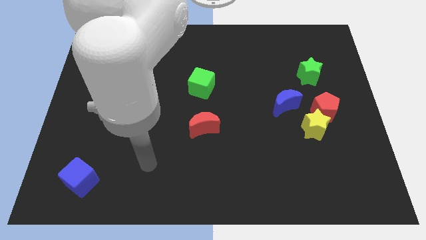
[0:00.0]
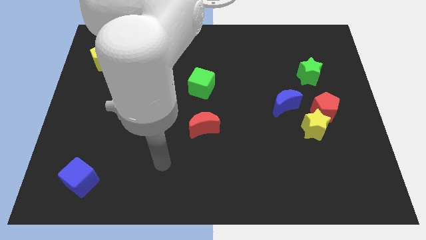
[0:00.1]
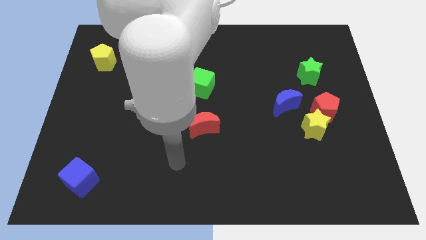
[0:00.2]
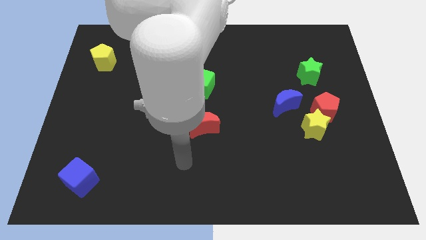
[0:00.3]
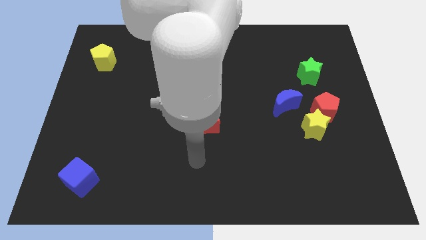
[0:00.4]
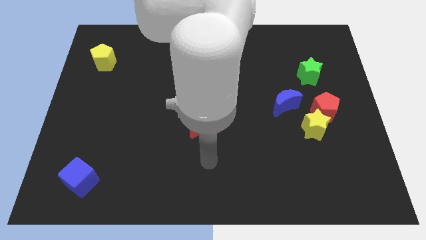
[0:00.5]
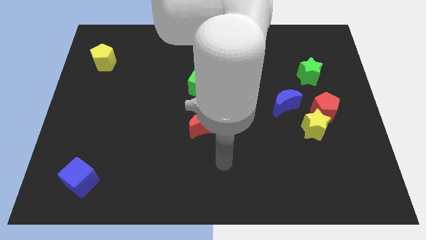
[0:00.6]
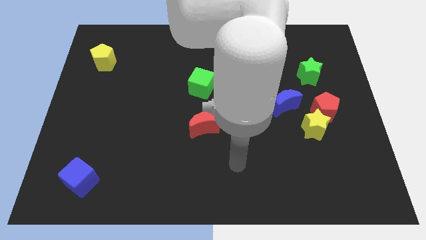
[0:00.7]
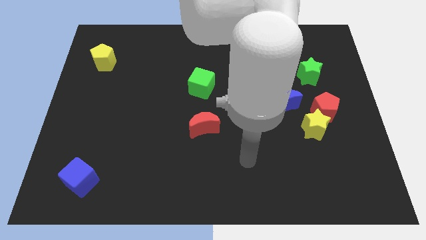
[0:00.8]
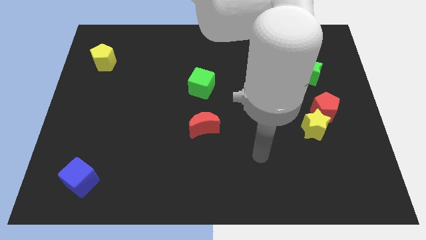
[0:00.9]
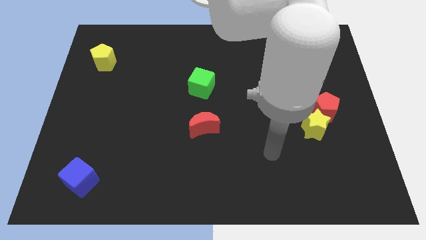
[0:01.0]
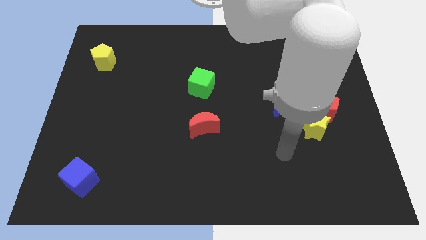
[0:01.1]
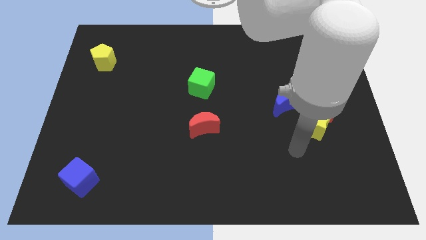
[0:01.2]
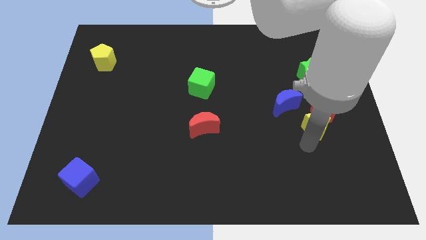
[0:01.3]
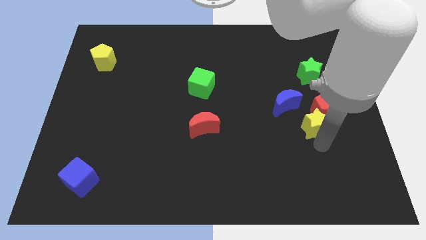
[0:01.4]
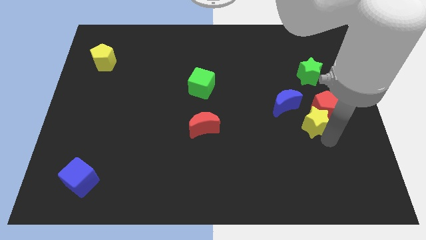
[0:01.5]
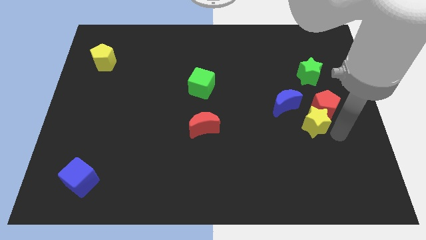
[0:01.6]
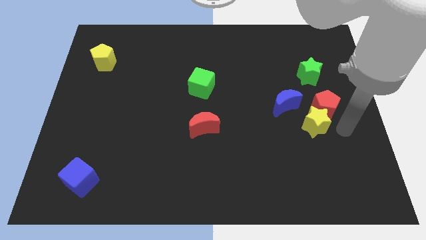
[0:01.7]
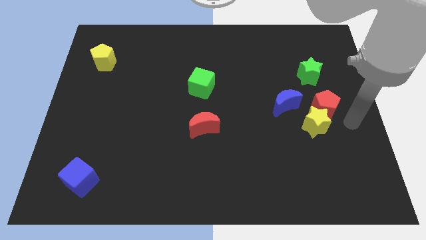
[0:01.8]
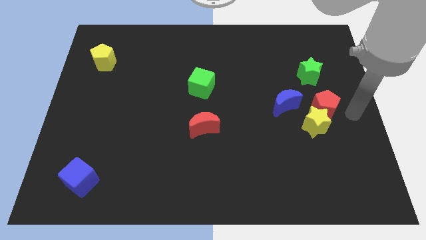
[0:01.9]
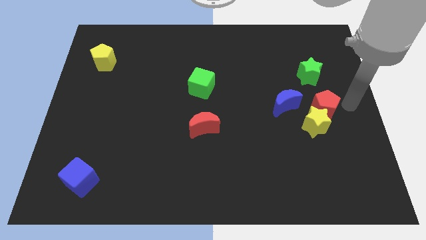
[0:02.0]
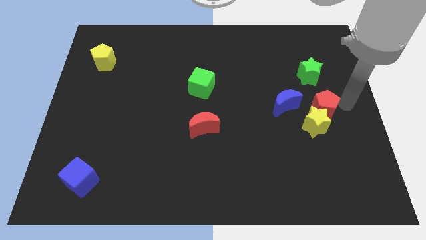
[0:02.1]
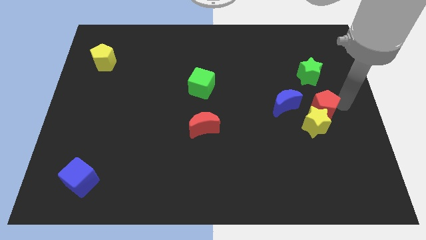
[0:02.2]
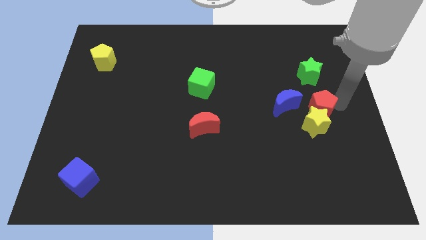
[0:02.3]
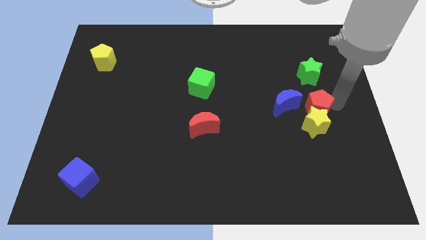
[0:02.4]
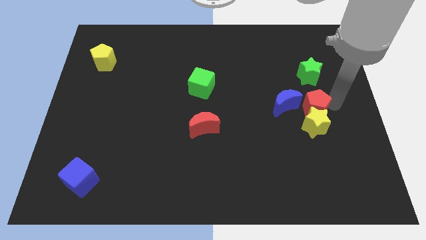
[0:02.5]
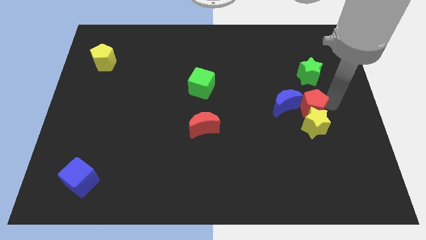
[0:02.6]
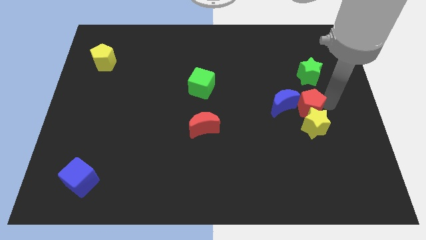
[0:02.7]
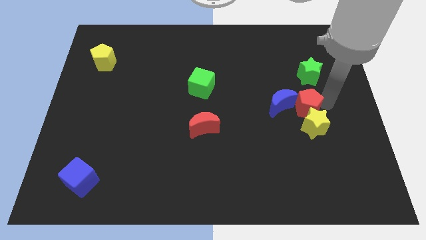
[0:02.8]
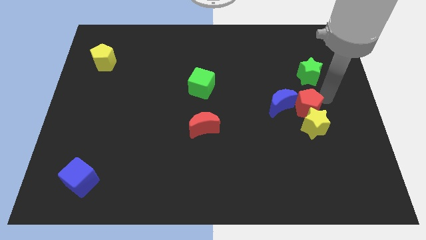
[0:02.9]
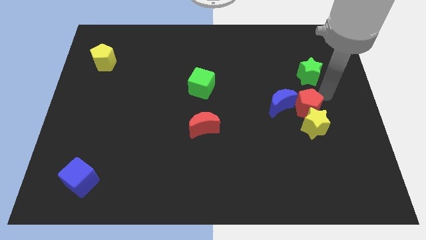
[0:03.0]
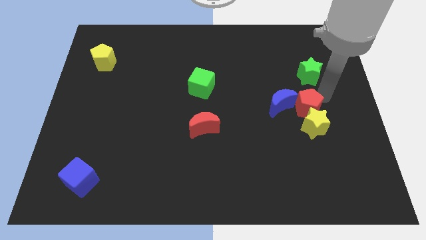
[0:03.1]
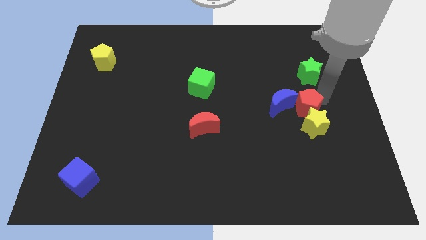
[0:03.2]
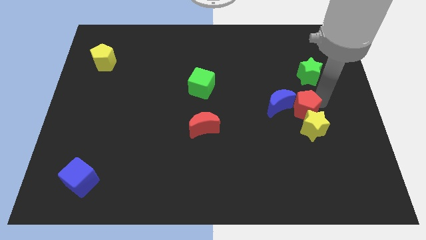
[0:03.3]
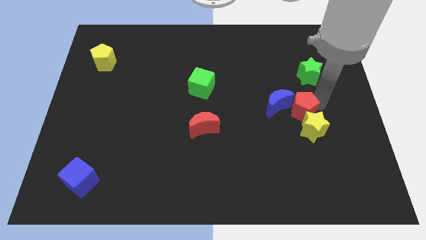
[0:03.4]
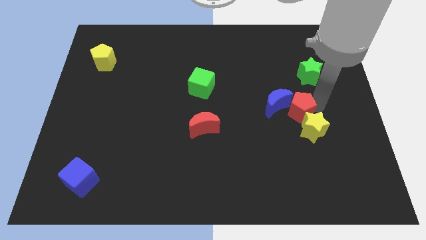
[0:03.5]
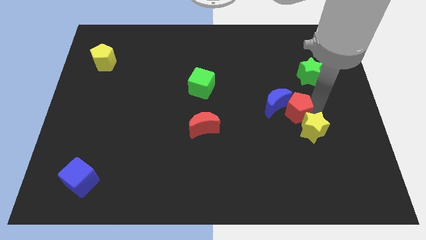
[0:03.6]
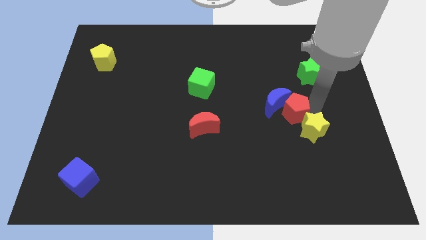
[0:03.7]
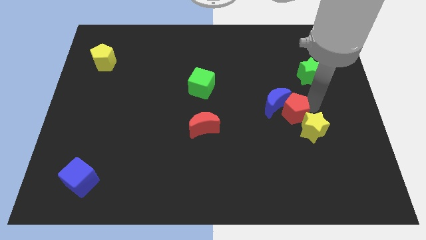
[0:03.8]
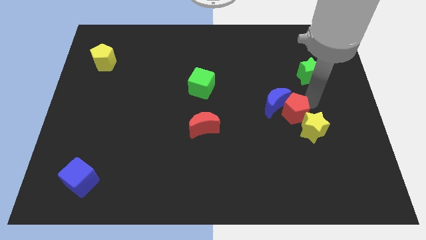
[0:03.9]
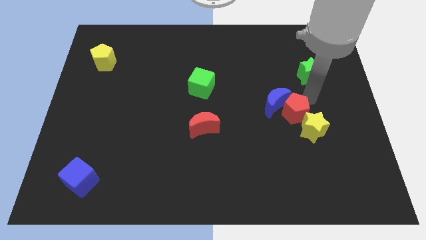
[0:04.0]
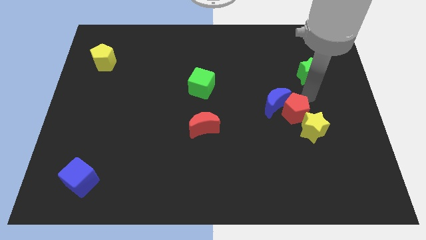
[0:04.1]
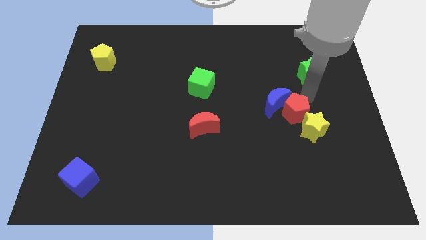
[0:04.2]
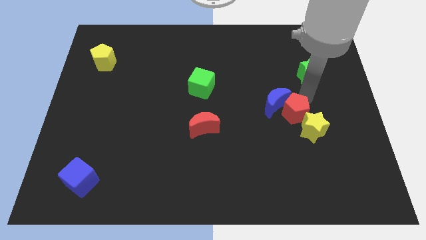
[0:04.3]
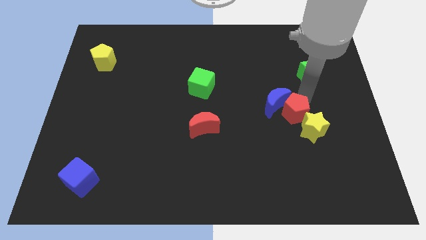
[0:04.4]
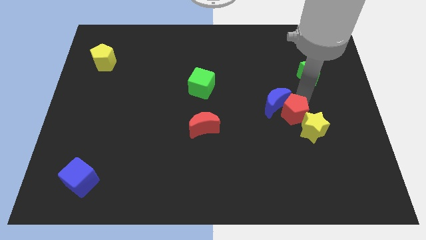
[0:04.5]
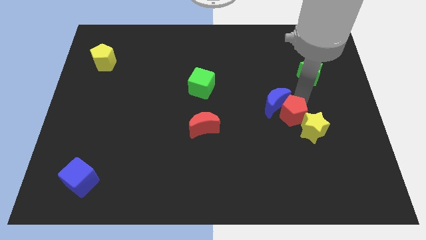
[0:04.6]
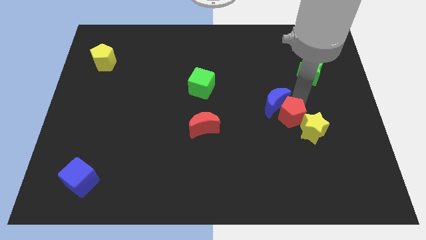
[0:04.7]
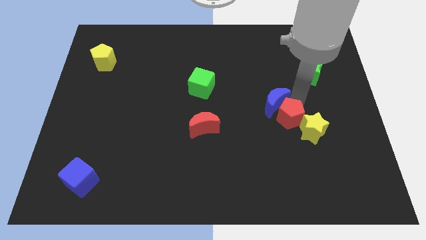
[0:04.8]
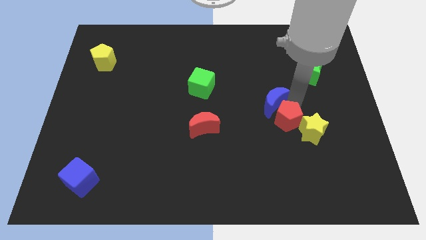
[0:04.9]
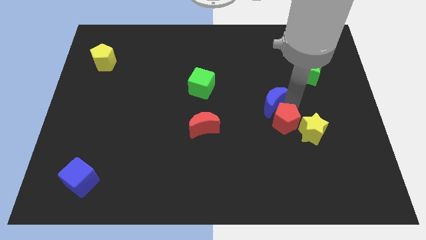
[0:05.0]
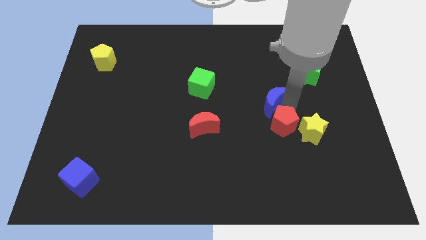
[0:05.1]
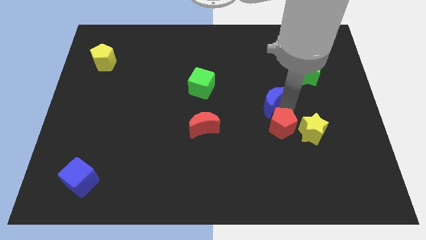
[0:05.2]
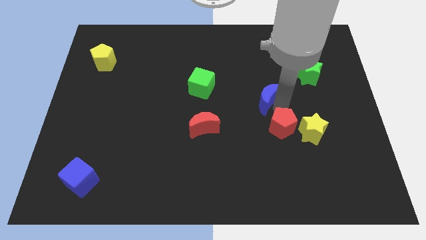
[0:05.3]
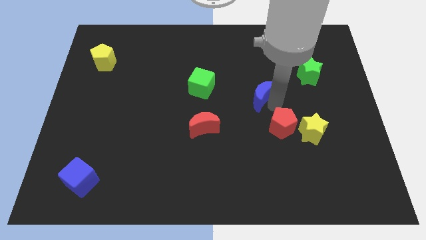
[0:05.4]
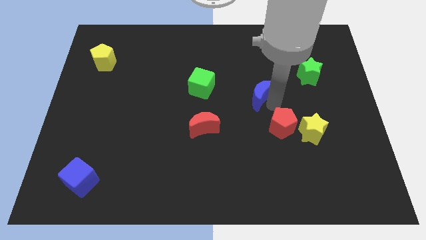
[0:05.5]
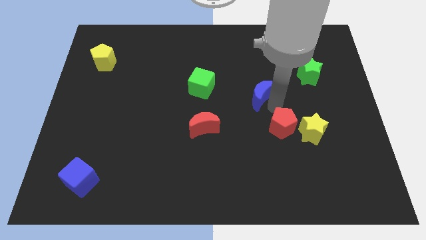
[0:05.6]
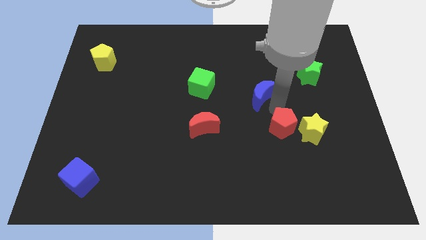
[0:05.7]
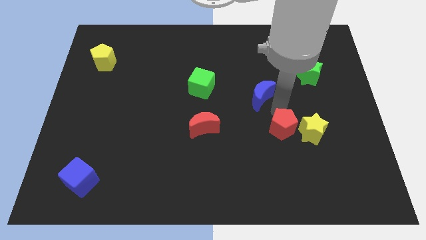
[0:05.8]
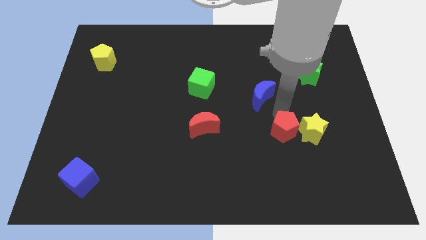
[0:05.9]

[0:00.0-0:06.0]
push the red pentagon to the bottom left of the yellow star
